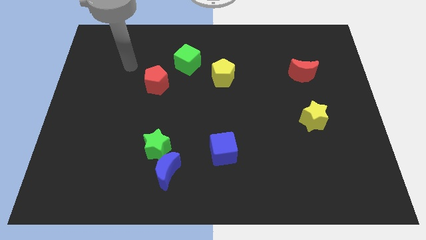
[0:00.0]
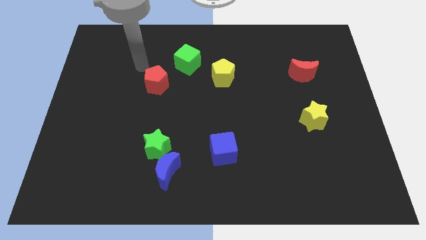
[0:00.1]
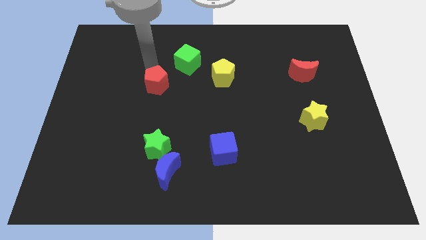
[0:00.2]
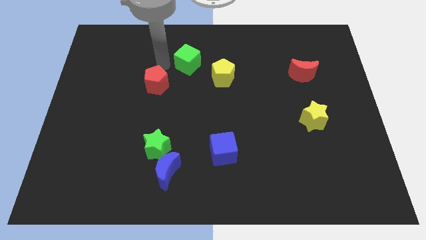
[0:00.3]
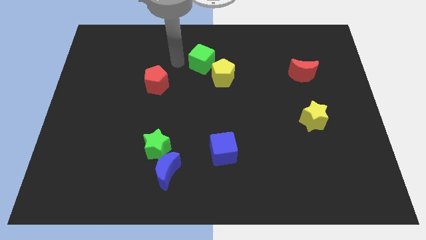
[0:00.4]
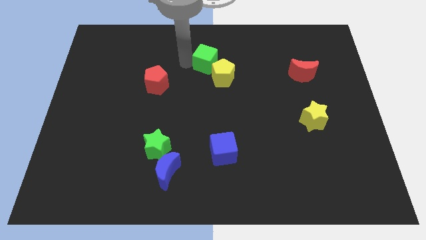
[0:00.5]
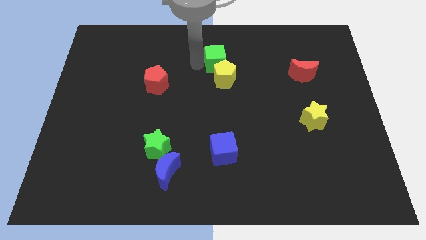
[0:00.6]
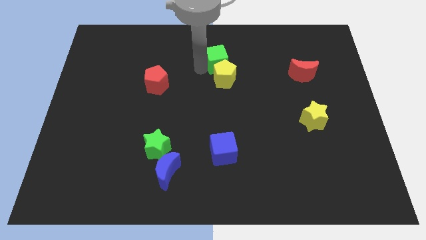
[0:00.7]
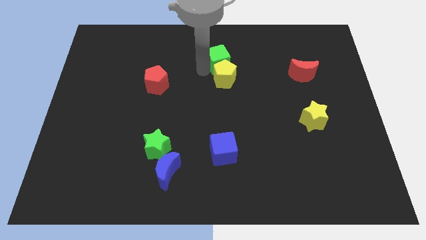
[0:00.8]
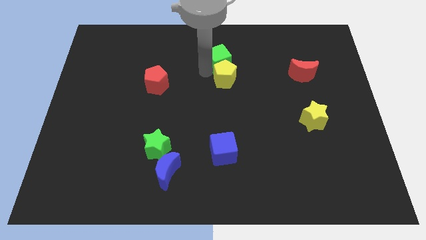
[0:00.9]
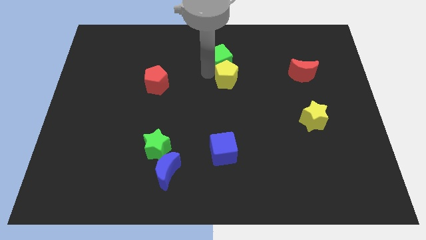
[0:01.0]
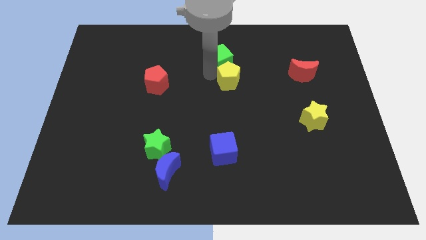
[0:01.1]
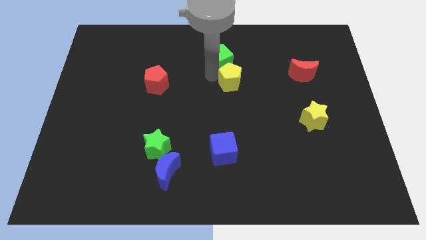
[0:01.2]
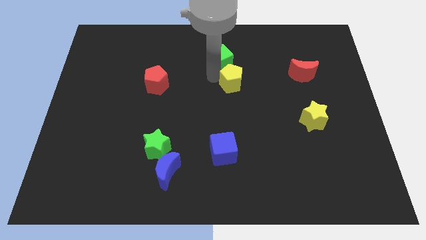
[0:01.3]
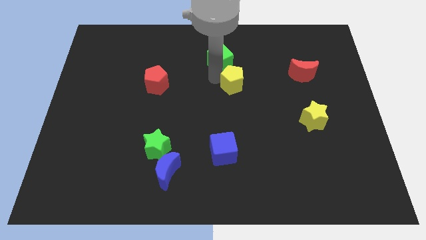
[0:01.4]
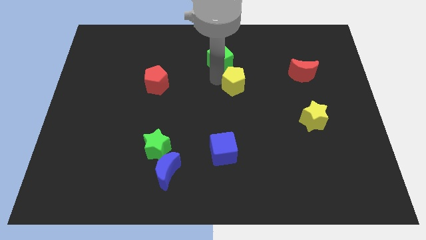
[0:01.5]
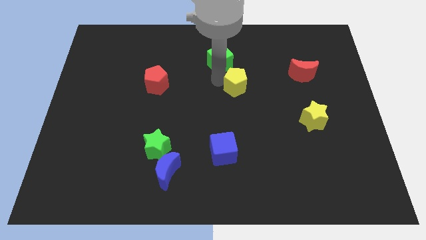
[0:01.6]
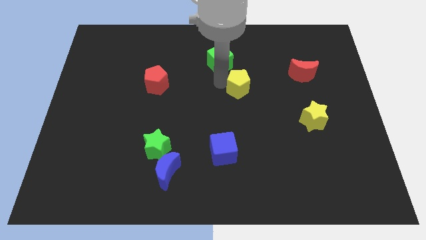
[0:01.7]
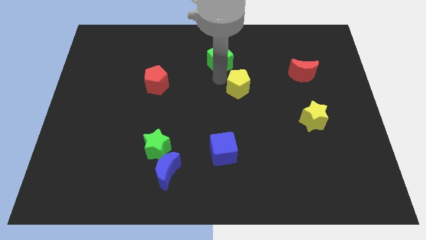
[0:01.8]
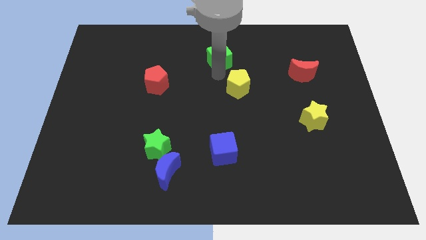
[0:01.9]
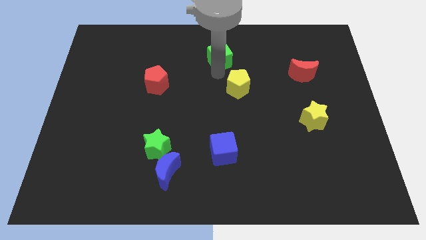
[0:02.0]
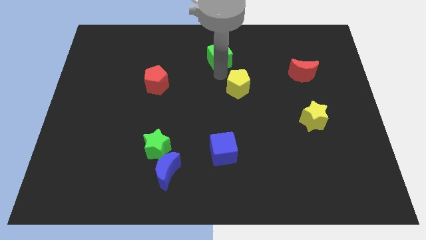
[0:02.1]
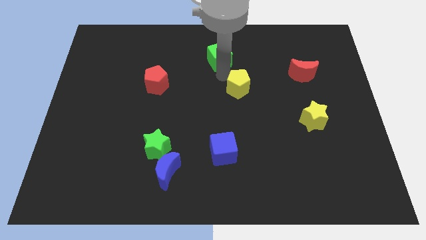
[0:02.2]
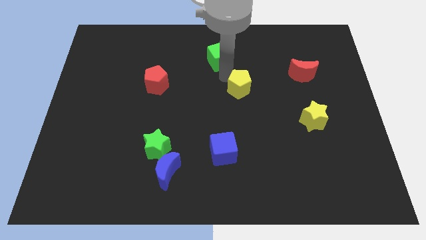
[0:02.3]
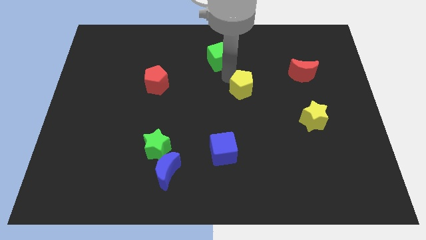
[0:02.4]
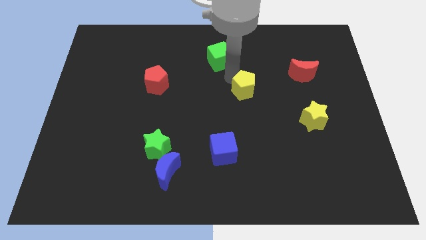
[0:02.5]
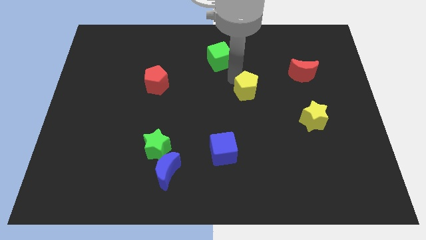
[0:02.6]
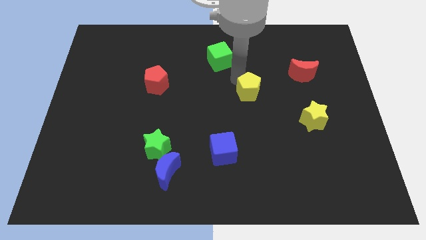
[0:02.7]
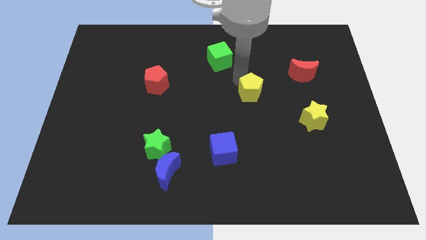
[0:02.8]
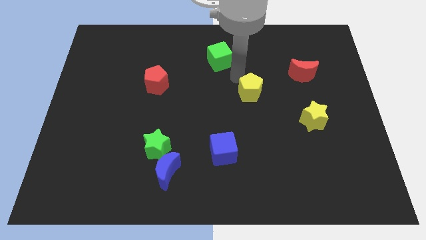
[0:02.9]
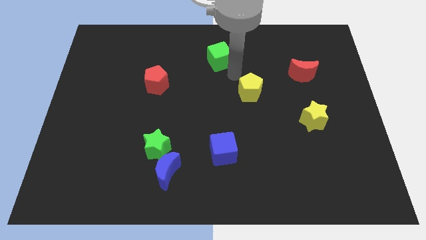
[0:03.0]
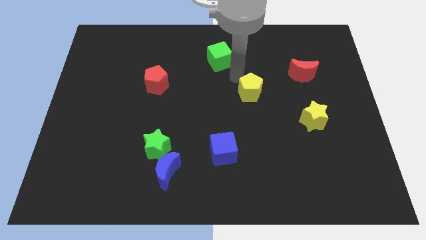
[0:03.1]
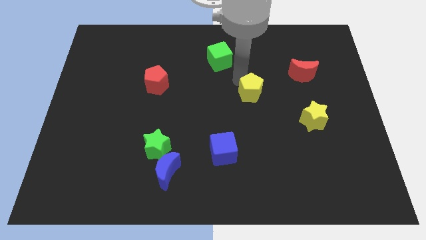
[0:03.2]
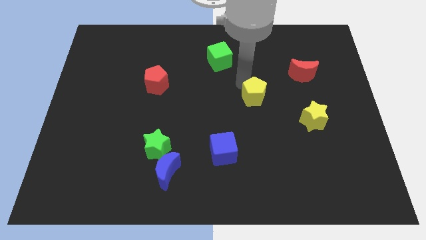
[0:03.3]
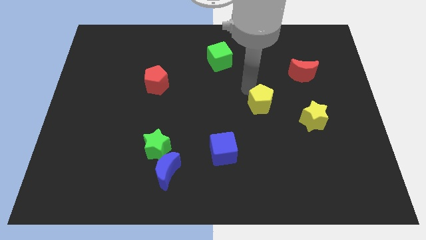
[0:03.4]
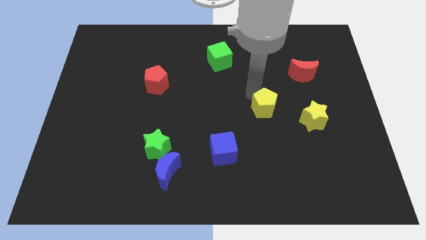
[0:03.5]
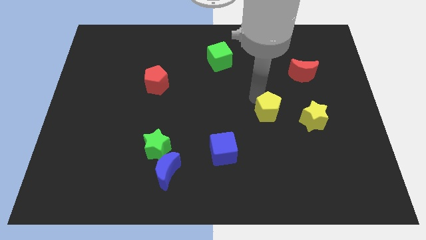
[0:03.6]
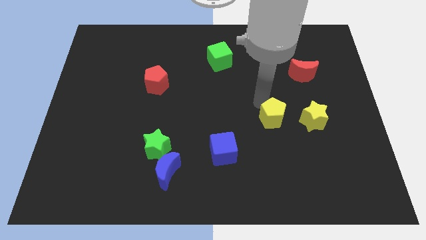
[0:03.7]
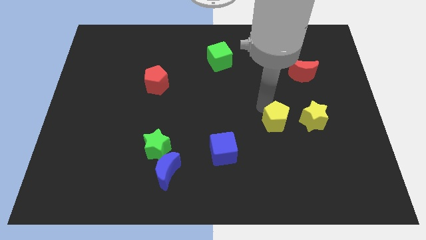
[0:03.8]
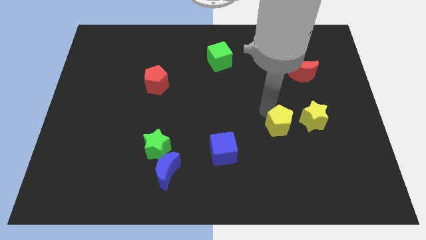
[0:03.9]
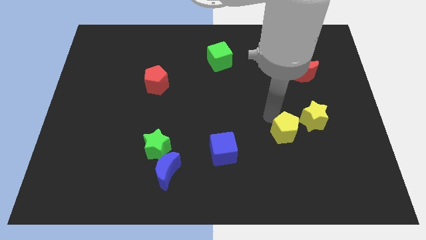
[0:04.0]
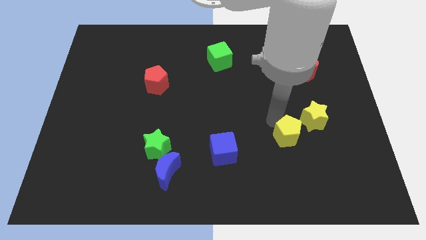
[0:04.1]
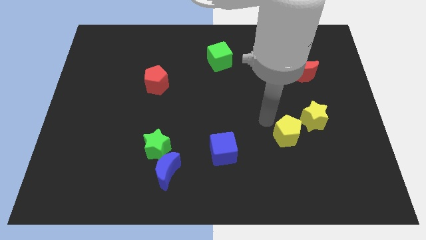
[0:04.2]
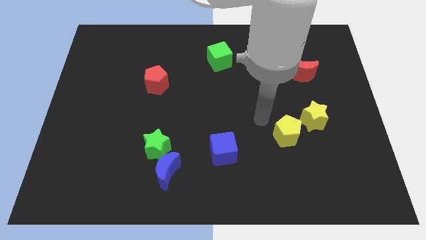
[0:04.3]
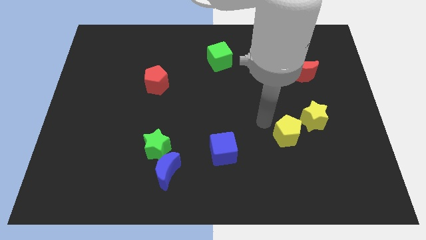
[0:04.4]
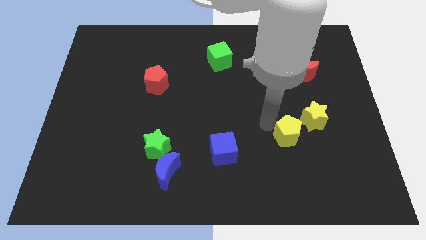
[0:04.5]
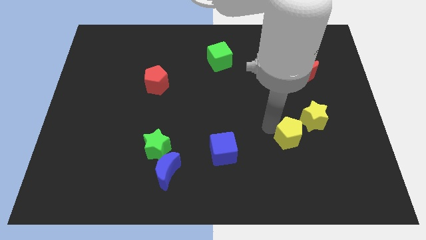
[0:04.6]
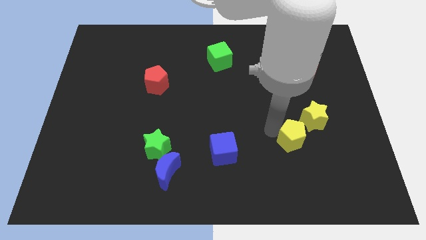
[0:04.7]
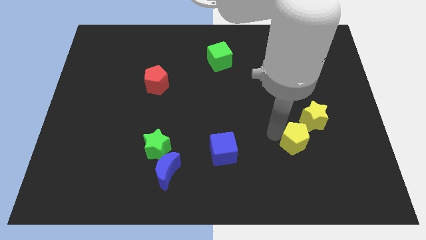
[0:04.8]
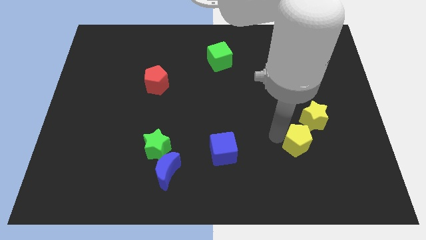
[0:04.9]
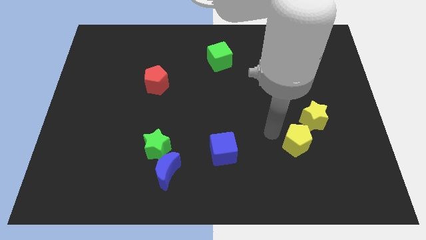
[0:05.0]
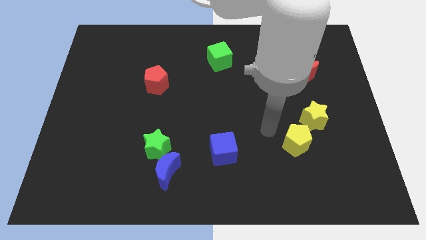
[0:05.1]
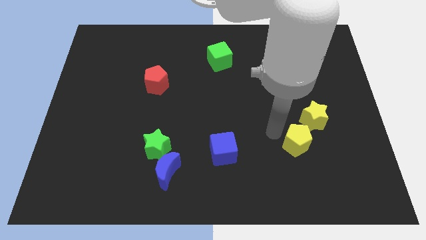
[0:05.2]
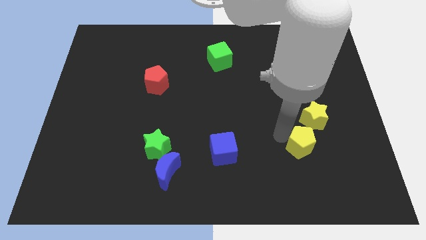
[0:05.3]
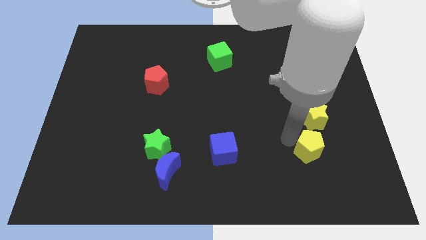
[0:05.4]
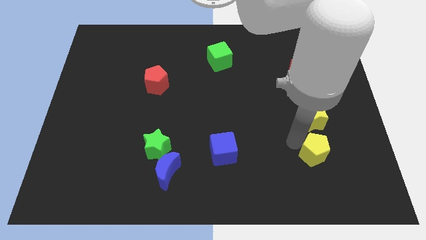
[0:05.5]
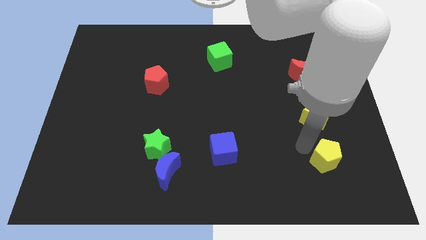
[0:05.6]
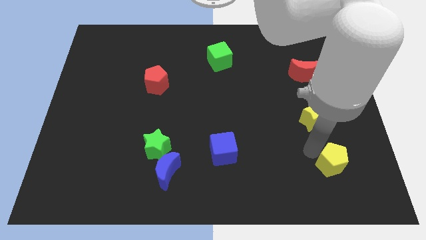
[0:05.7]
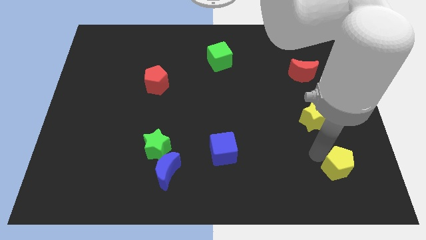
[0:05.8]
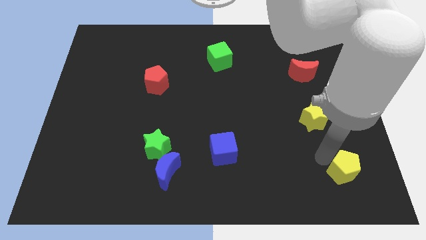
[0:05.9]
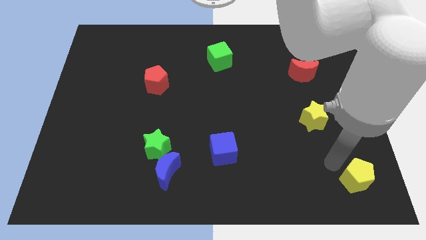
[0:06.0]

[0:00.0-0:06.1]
put the yellow pentagon to the bottom right of the board
